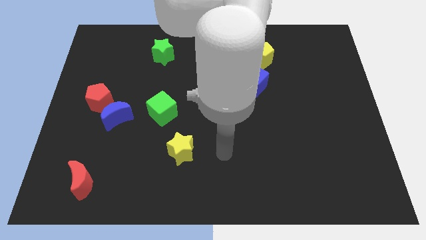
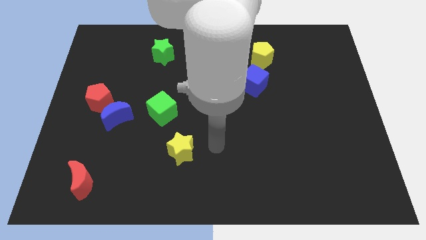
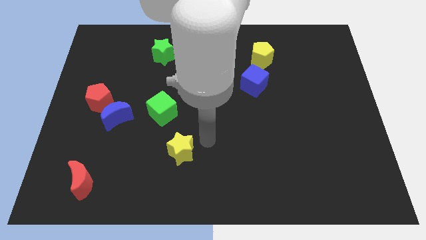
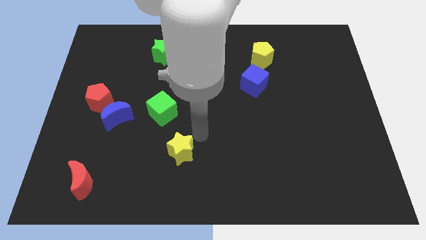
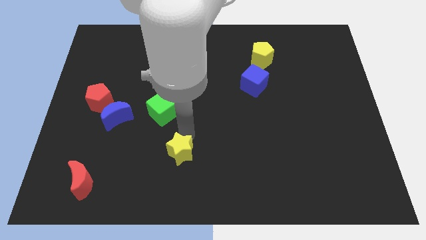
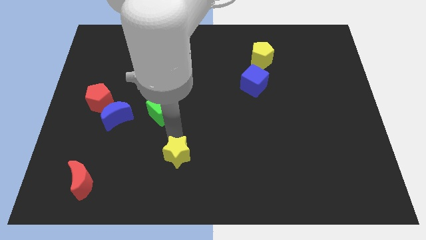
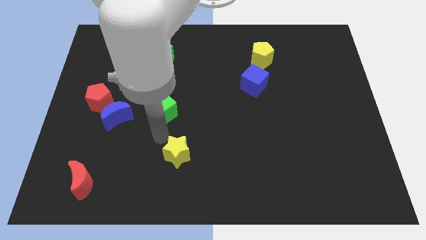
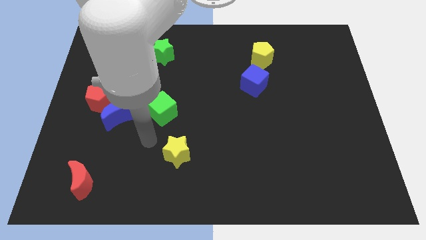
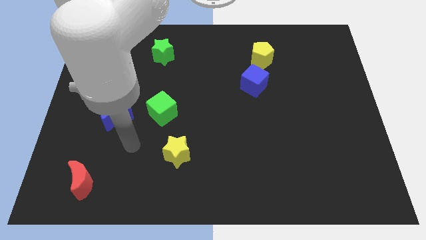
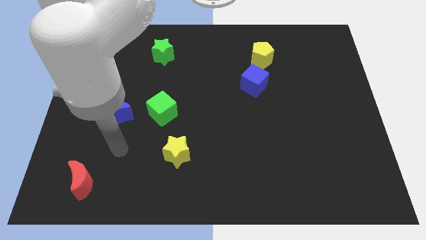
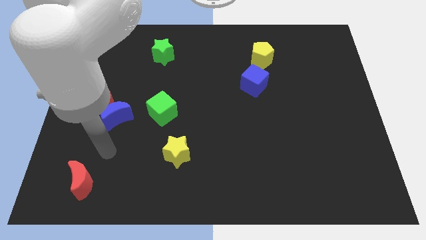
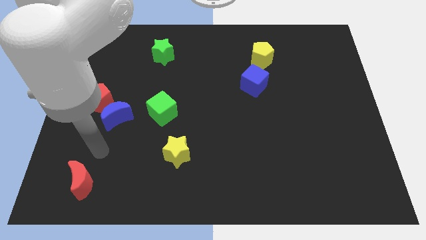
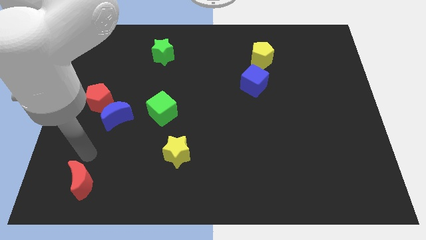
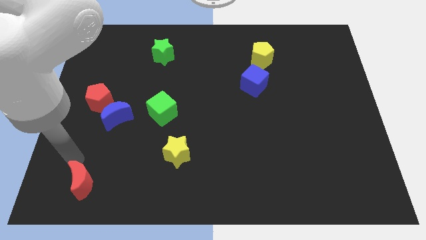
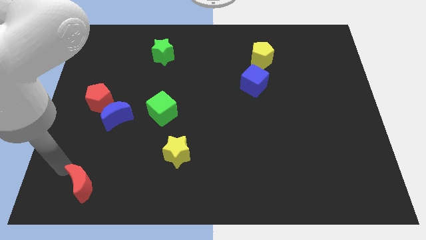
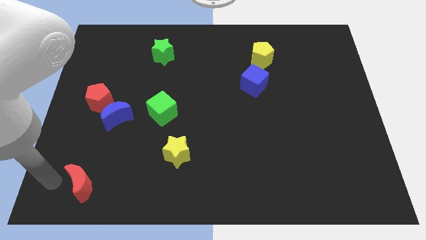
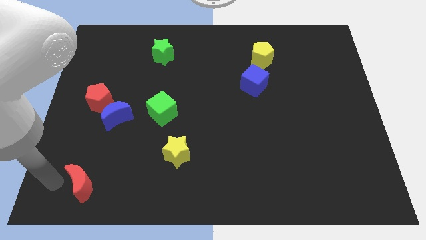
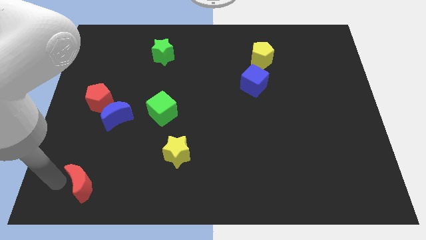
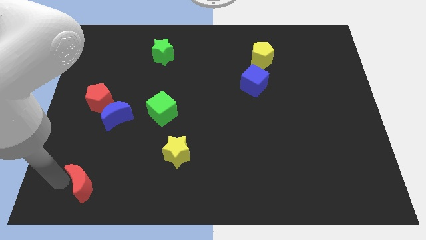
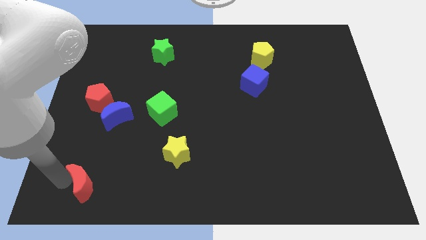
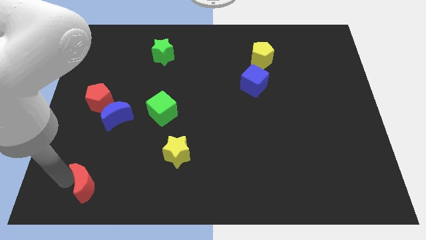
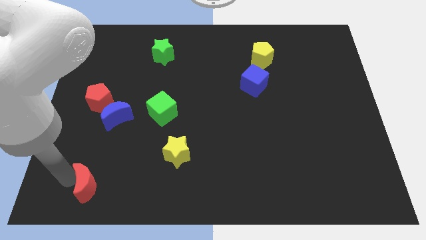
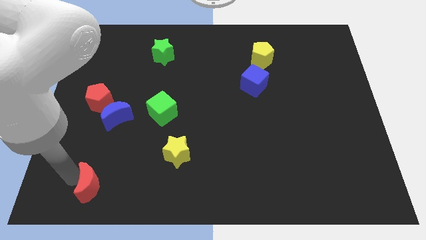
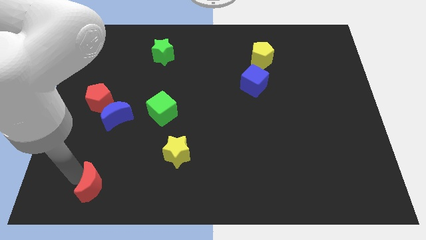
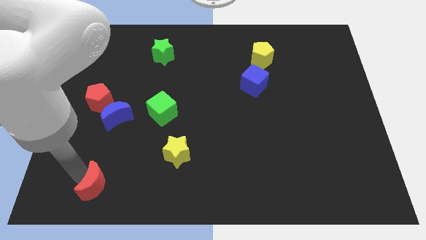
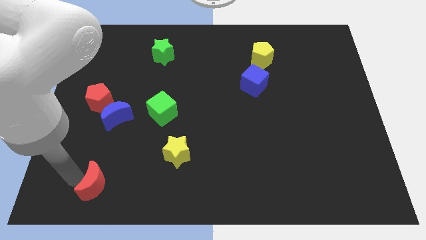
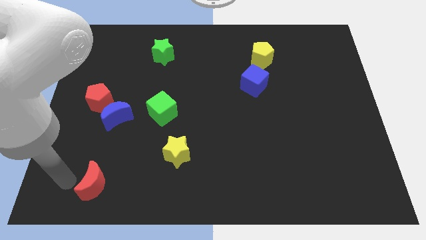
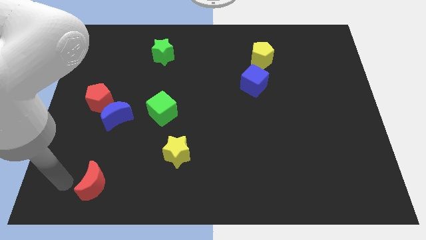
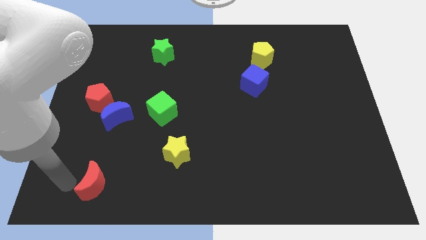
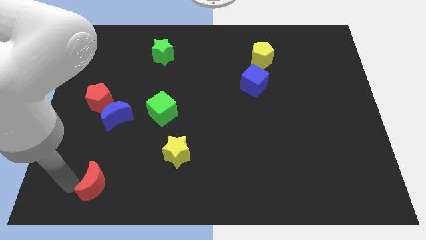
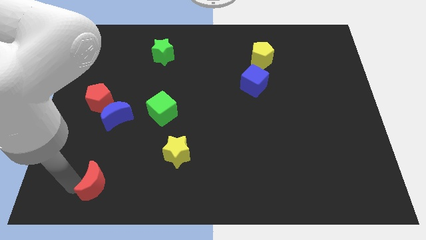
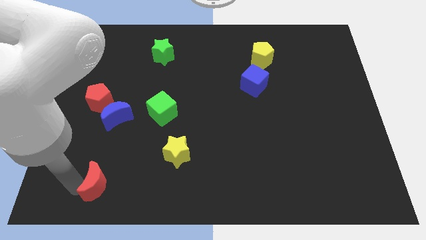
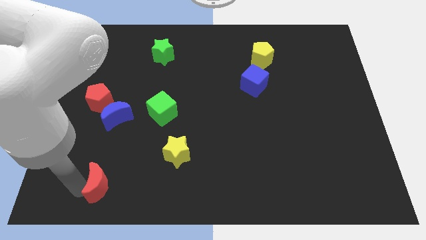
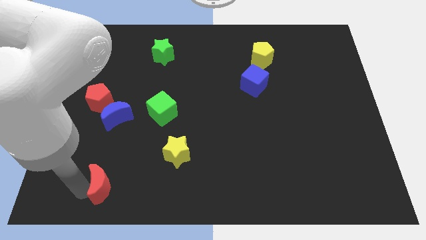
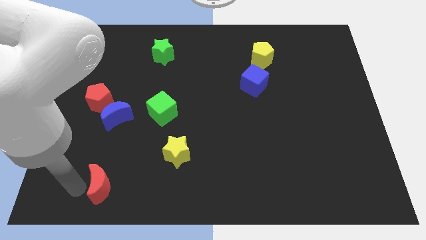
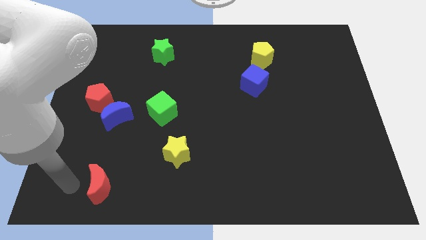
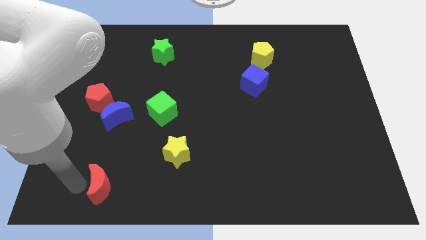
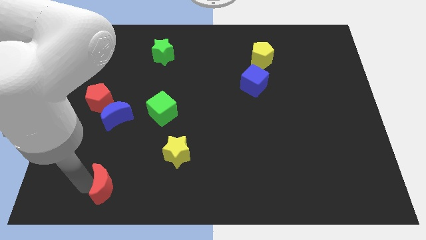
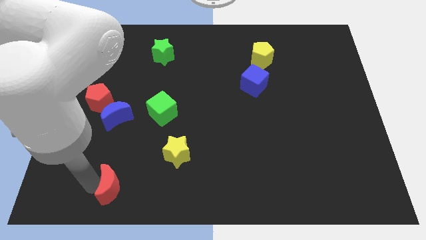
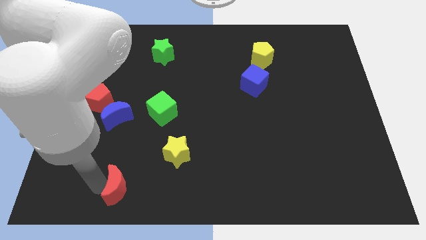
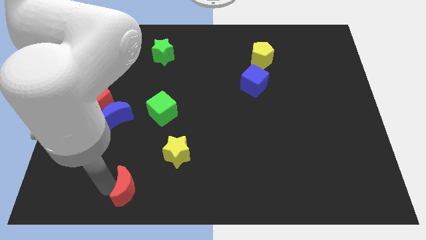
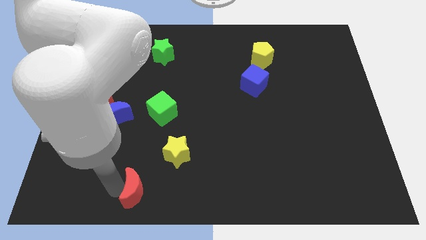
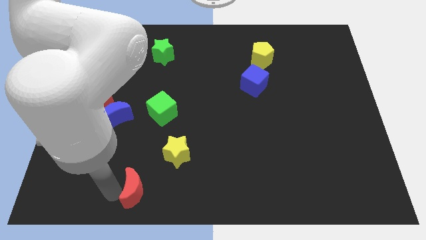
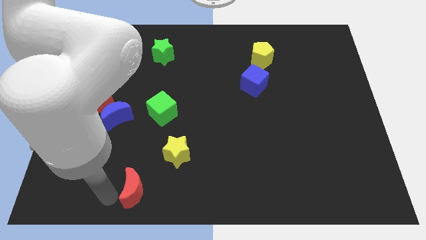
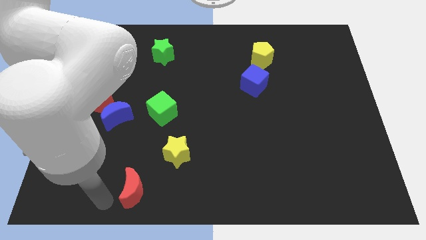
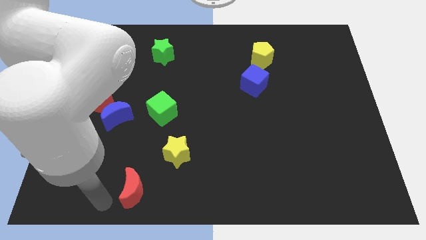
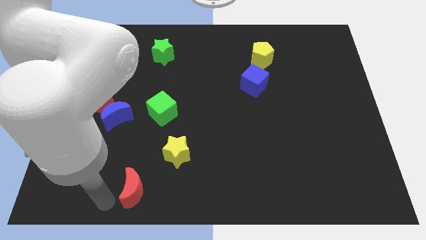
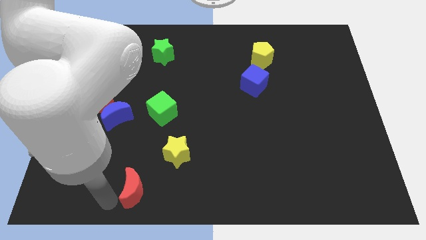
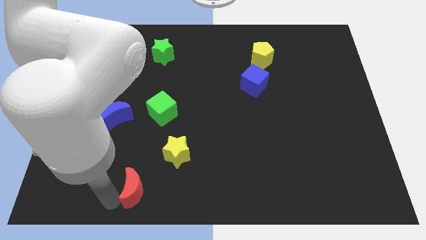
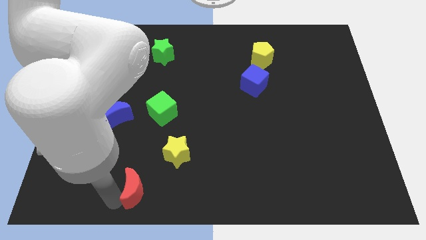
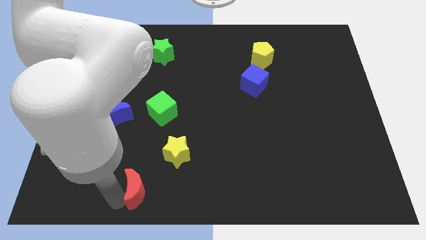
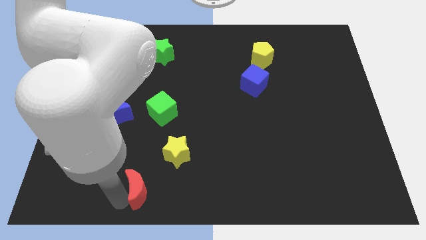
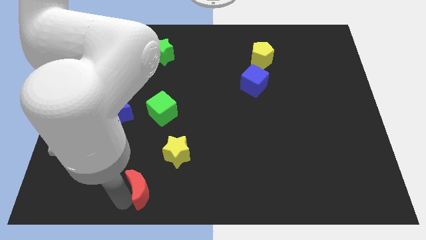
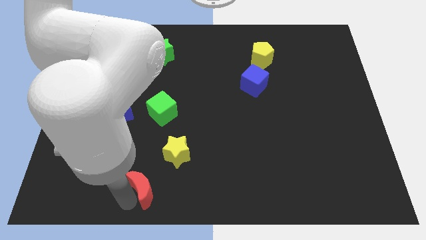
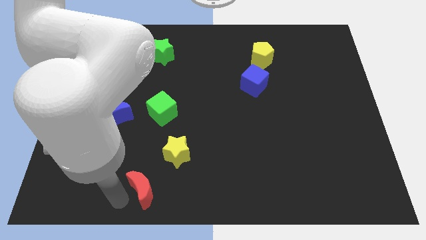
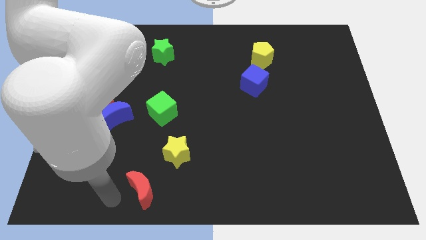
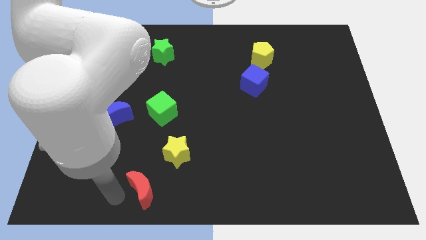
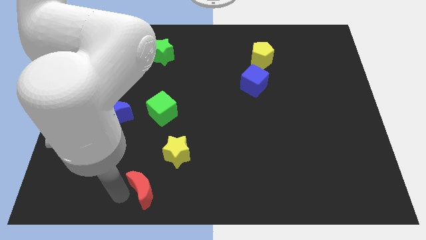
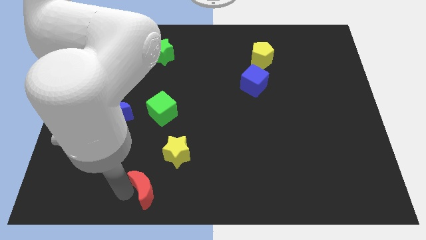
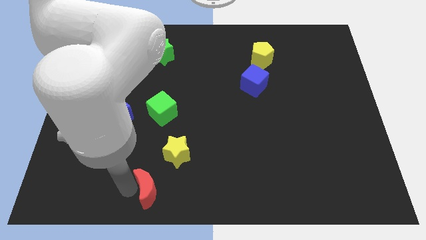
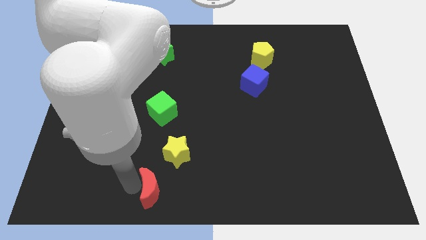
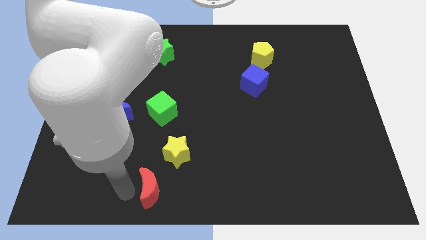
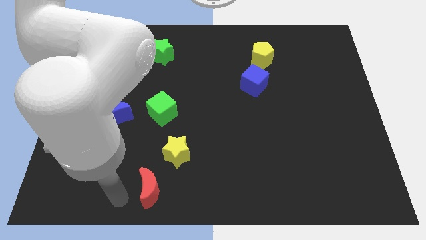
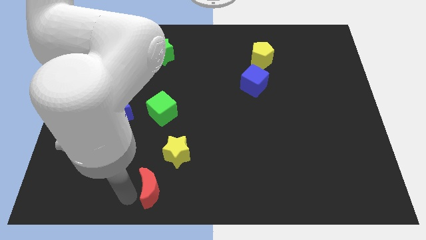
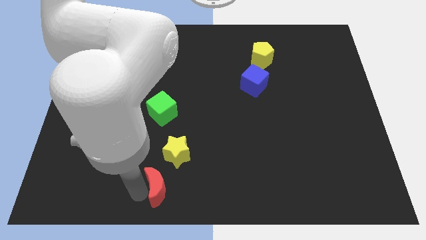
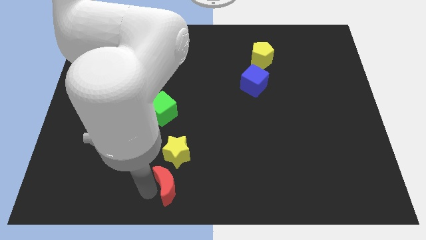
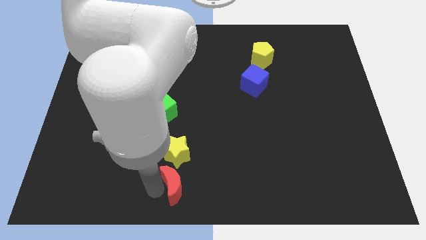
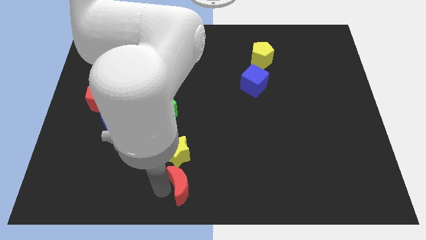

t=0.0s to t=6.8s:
slide the red moon right

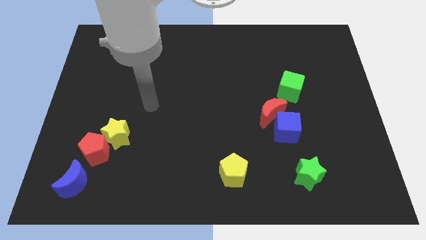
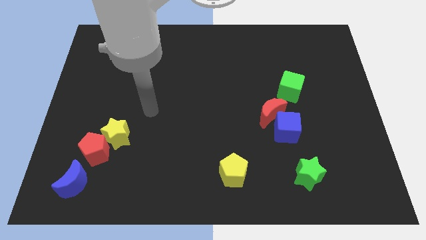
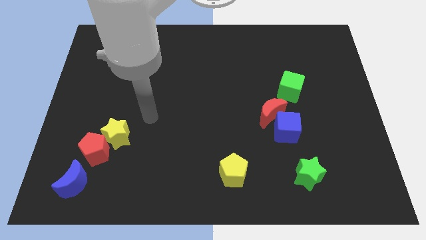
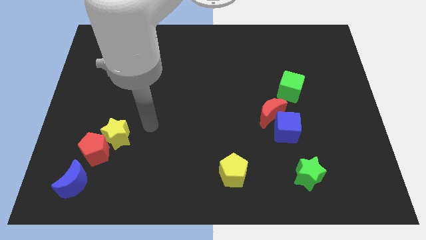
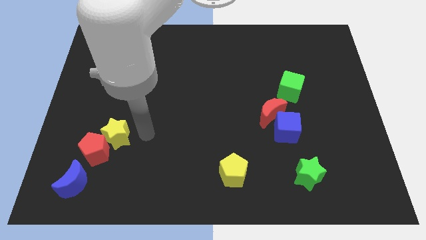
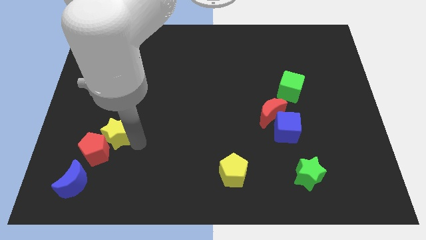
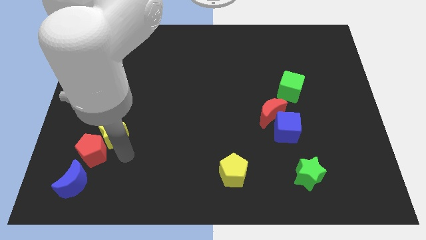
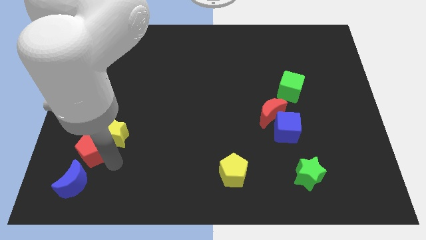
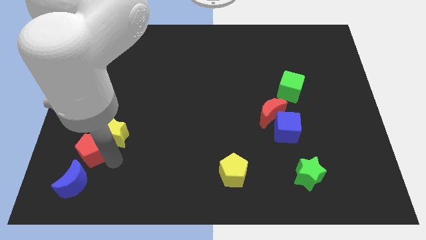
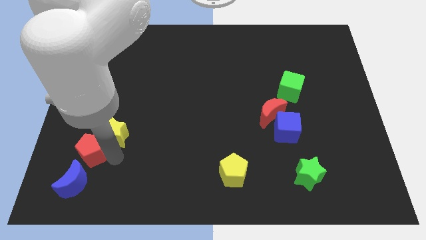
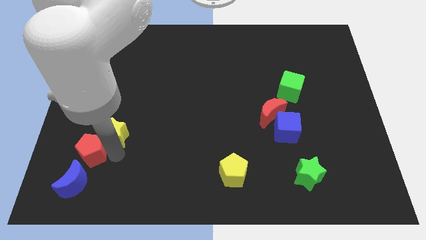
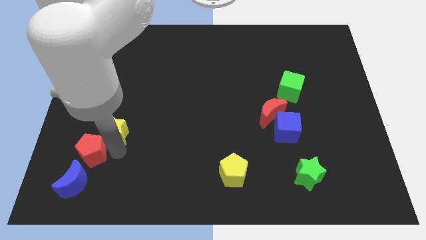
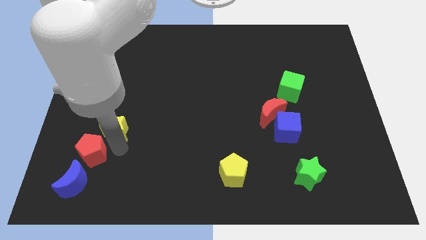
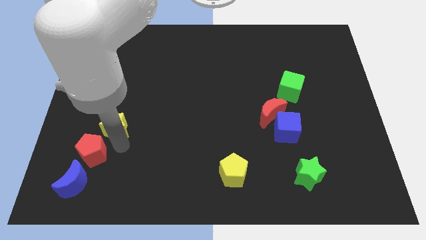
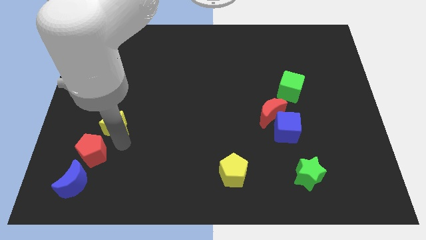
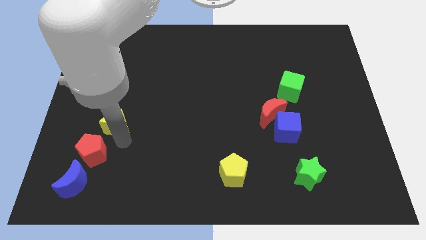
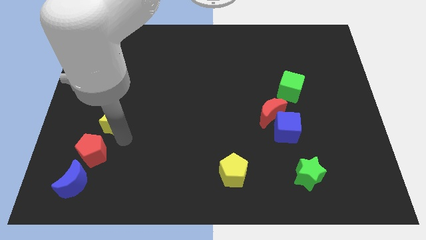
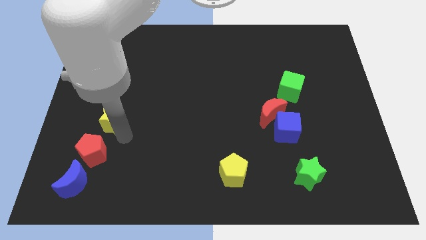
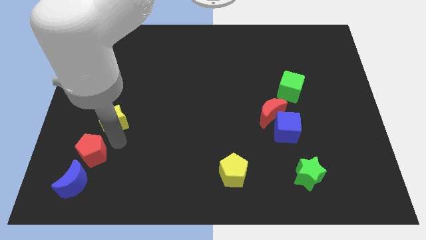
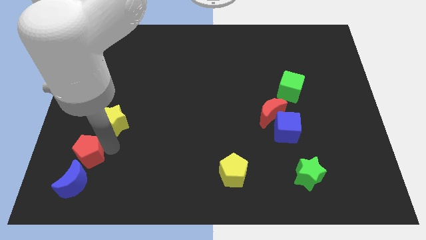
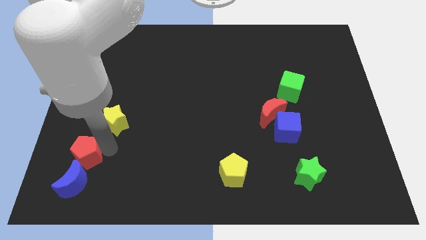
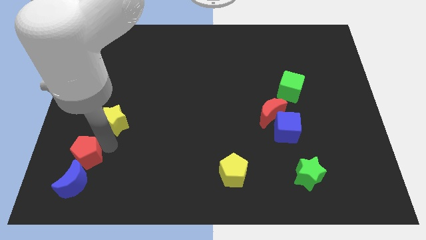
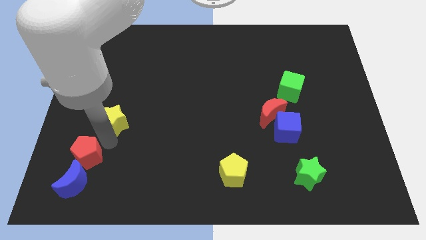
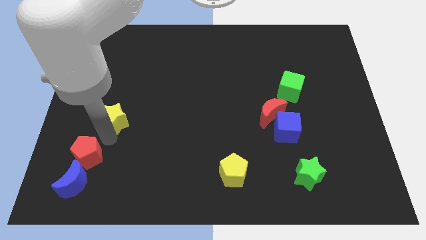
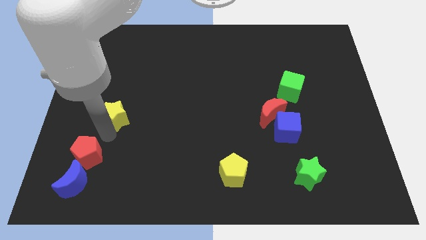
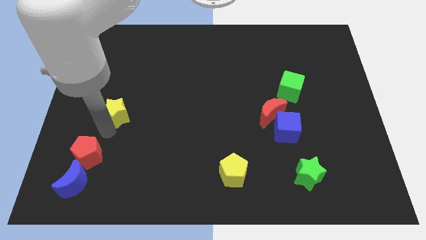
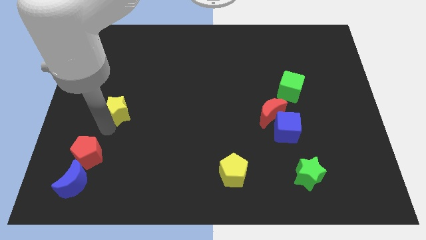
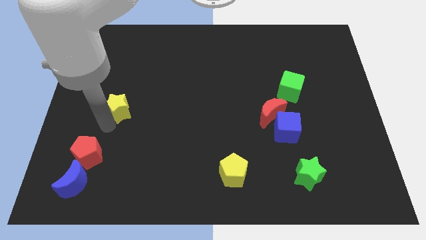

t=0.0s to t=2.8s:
push the yellow star a bit up
